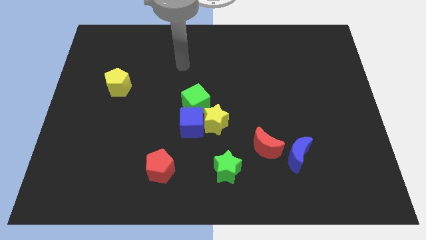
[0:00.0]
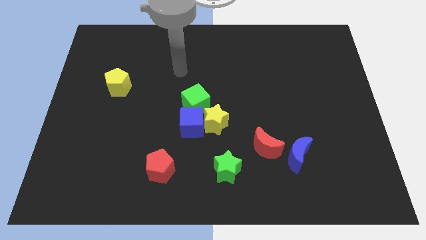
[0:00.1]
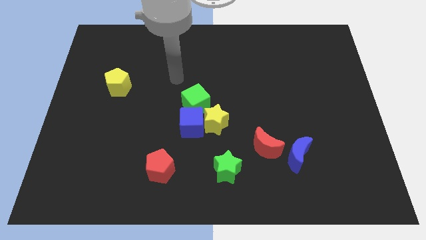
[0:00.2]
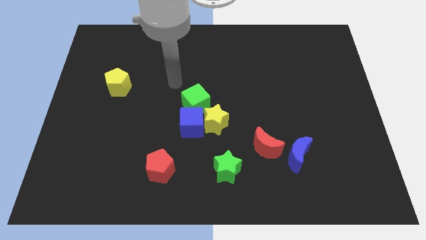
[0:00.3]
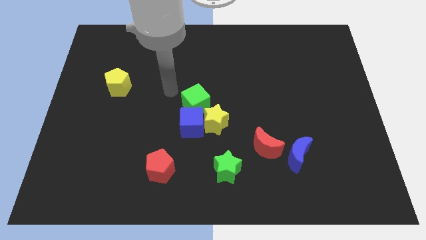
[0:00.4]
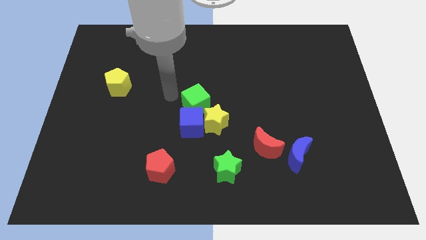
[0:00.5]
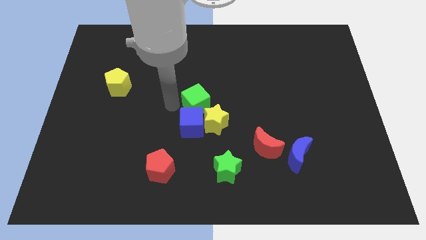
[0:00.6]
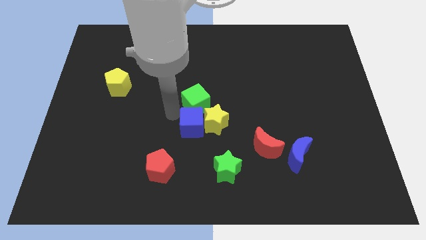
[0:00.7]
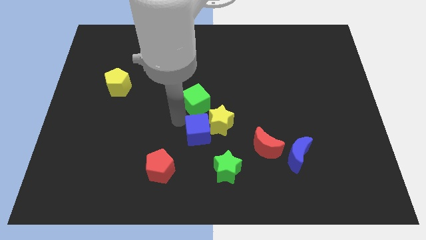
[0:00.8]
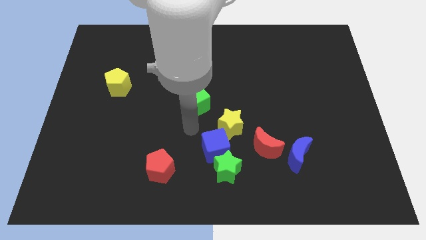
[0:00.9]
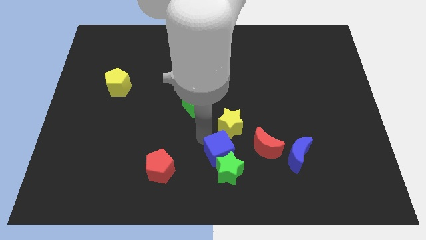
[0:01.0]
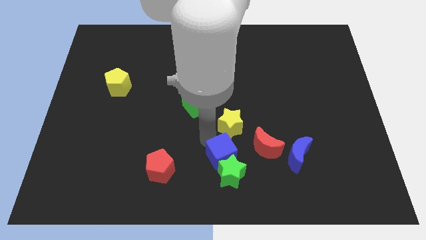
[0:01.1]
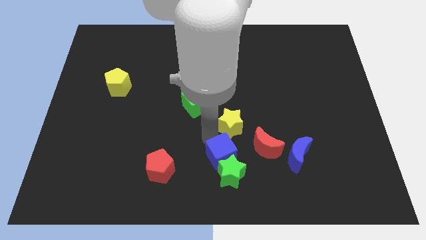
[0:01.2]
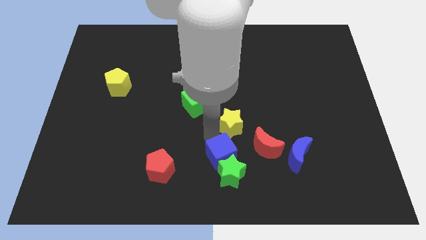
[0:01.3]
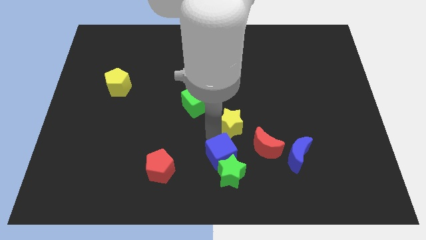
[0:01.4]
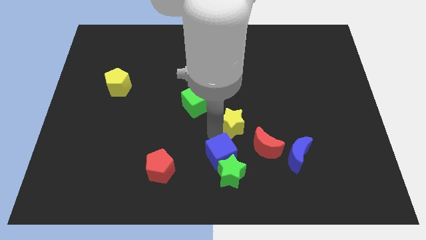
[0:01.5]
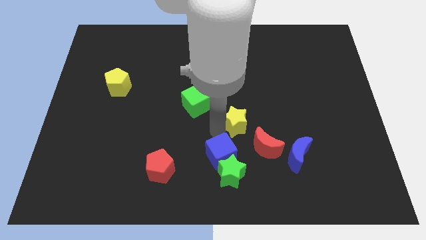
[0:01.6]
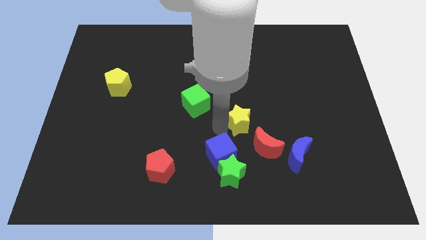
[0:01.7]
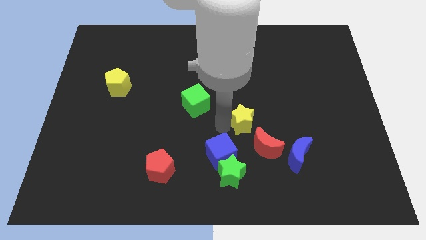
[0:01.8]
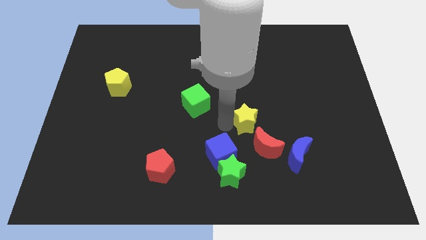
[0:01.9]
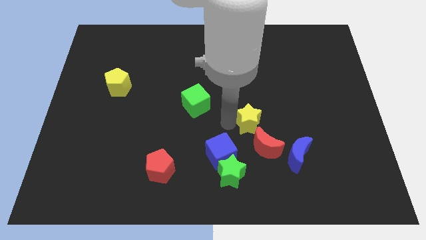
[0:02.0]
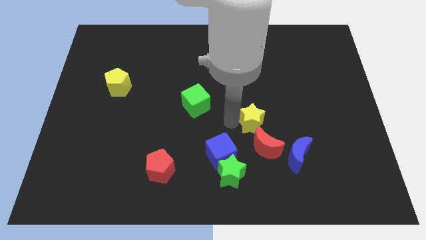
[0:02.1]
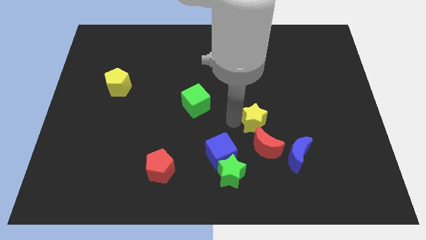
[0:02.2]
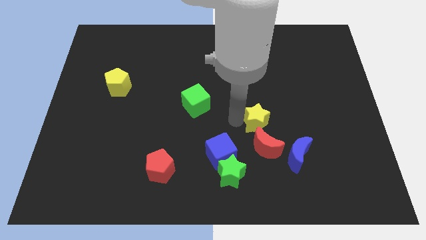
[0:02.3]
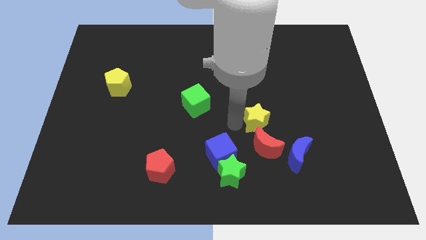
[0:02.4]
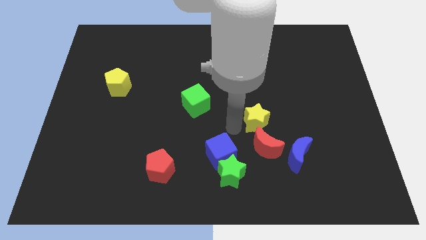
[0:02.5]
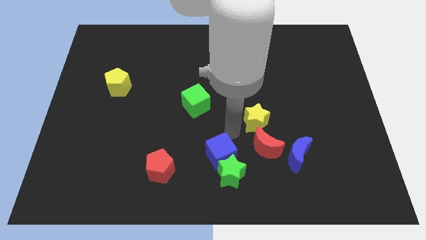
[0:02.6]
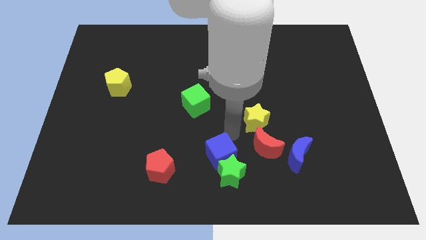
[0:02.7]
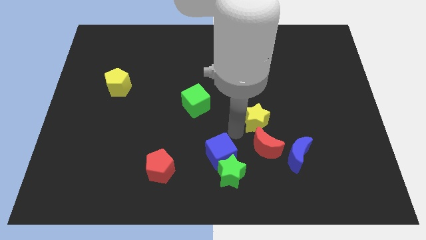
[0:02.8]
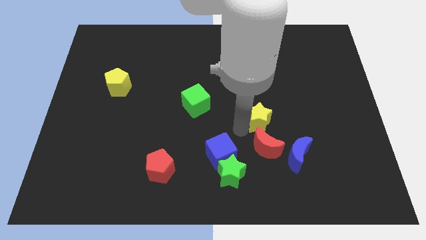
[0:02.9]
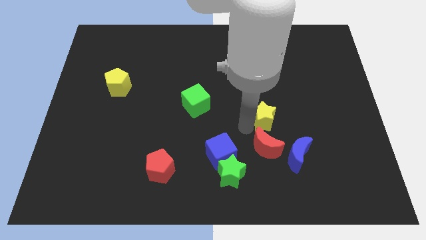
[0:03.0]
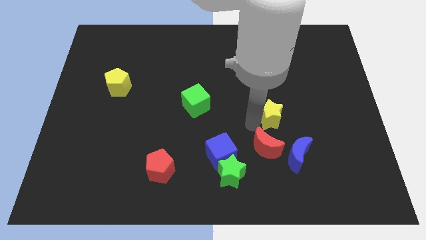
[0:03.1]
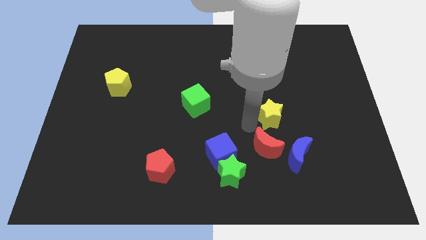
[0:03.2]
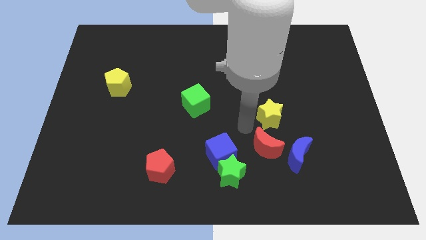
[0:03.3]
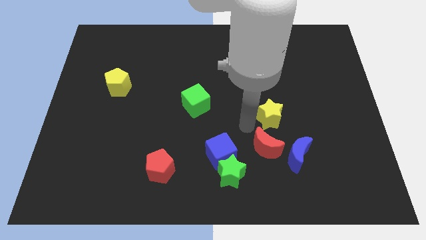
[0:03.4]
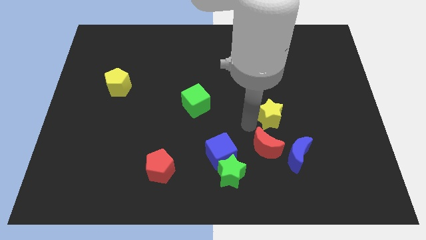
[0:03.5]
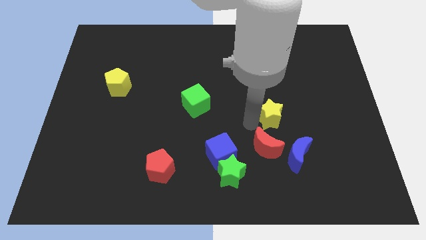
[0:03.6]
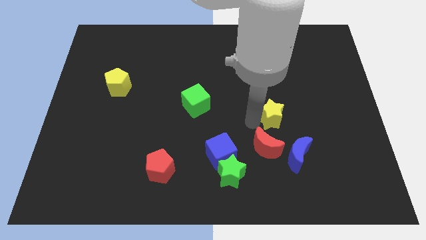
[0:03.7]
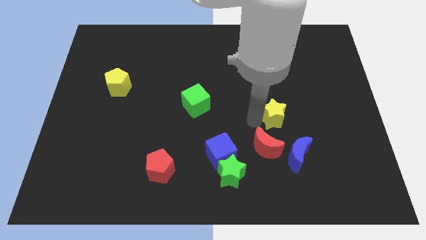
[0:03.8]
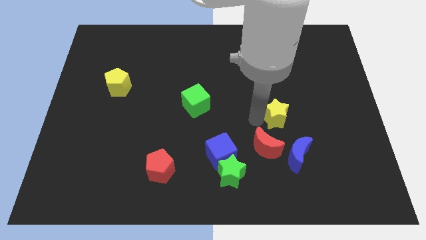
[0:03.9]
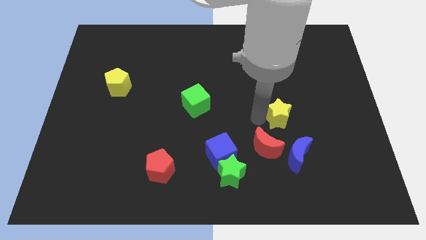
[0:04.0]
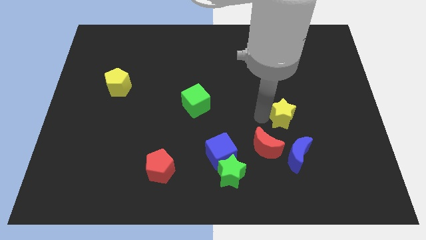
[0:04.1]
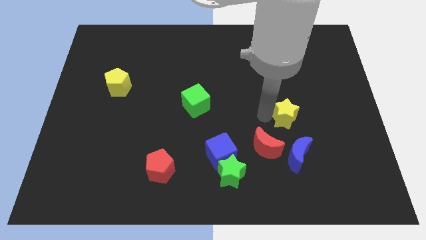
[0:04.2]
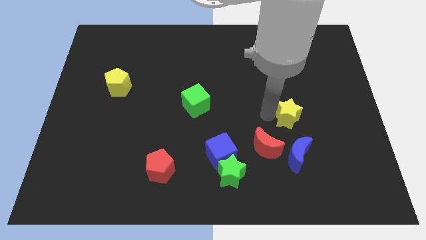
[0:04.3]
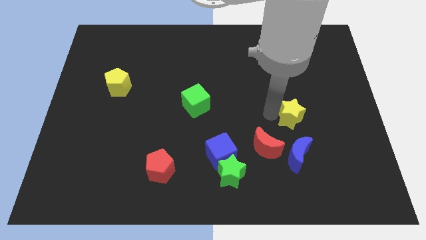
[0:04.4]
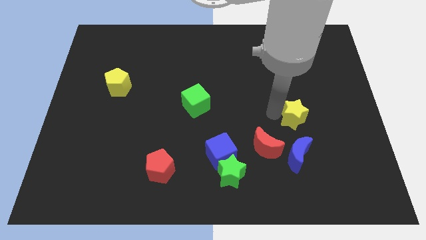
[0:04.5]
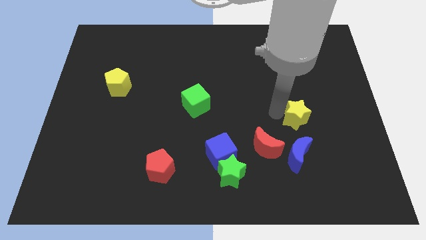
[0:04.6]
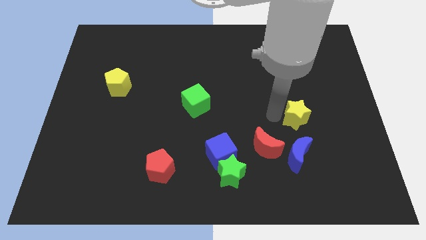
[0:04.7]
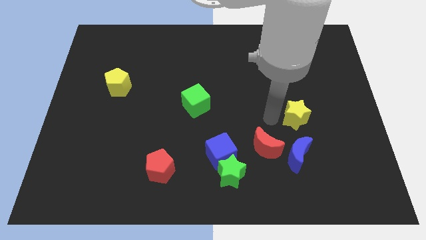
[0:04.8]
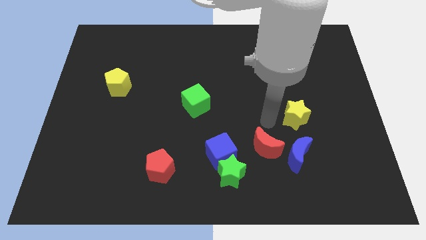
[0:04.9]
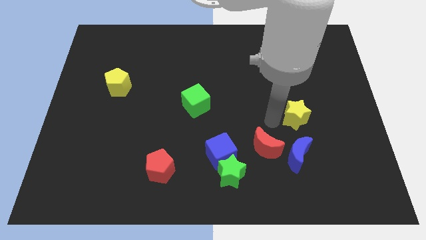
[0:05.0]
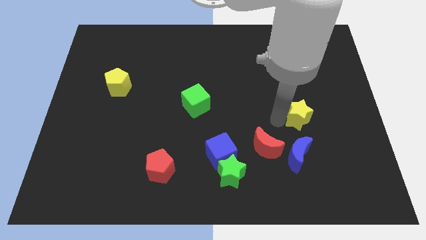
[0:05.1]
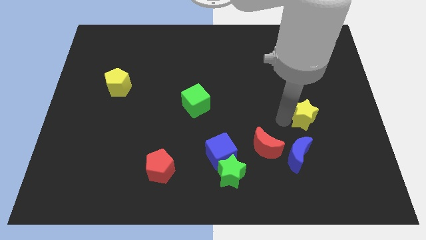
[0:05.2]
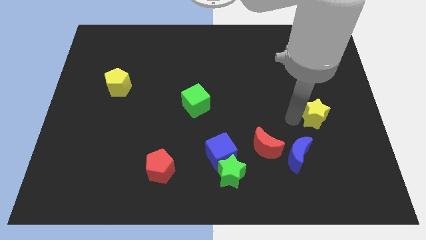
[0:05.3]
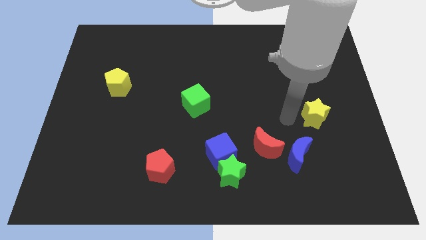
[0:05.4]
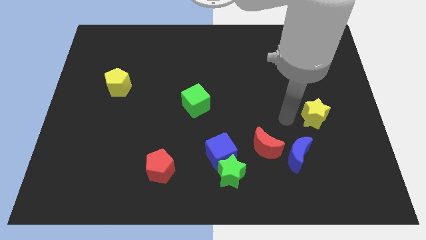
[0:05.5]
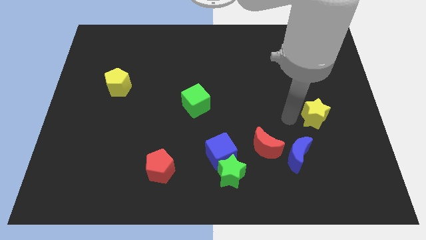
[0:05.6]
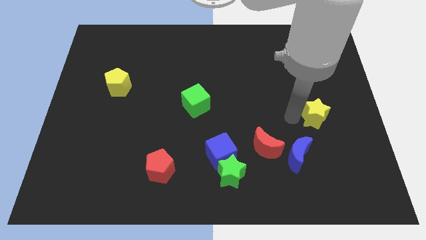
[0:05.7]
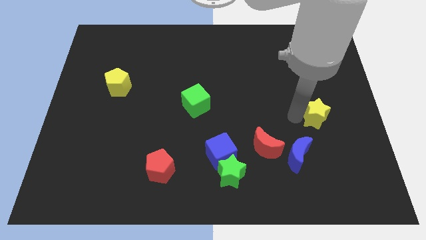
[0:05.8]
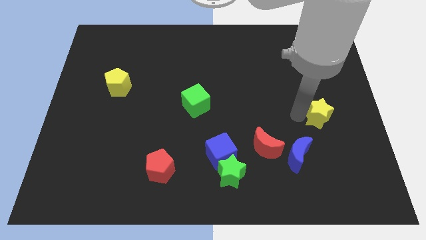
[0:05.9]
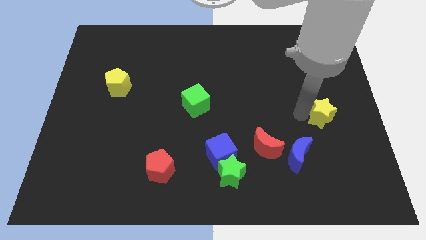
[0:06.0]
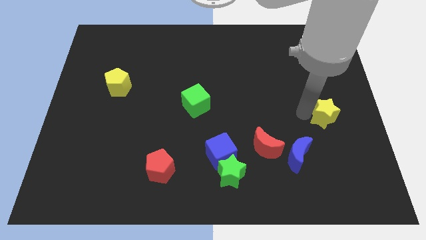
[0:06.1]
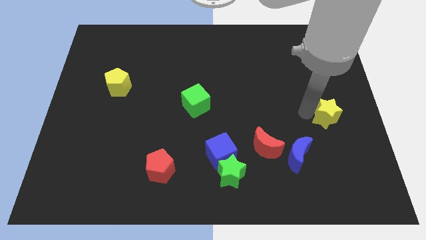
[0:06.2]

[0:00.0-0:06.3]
push the yellow star to the right side
